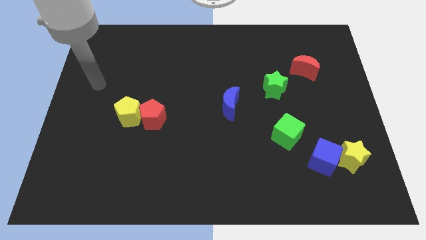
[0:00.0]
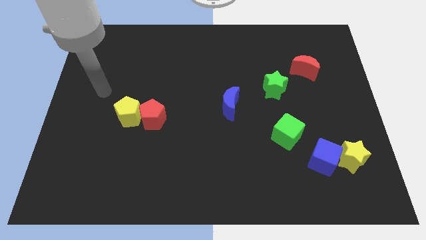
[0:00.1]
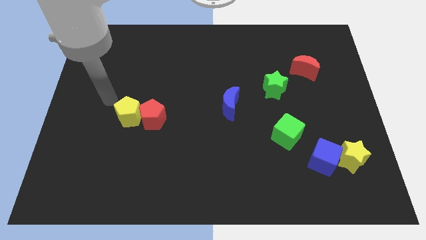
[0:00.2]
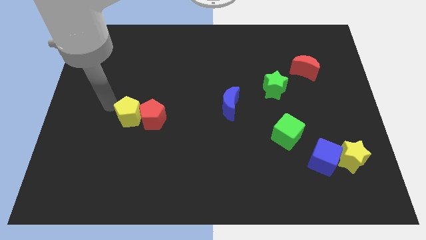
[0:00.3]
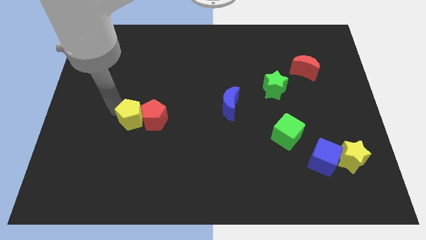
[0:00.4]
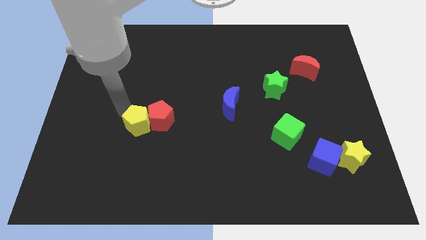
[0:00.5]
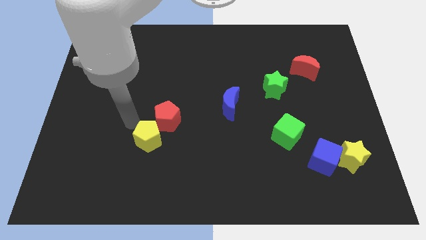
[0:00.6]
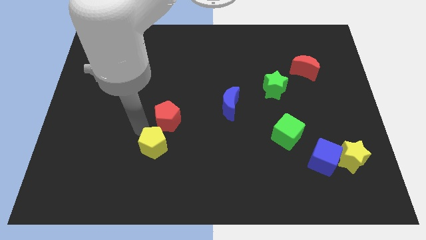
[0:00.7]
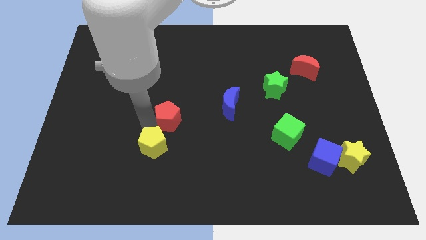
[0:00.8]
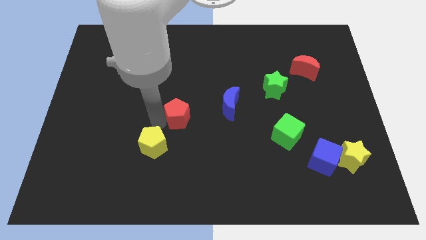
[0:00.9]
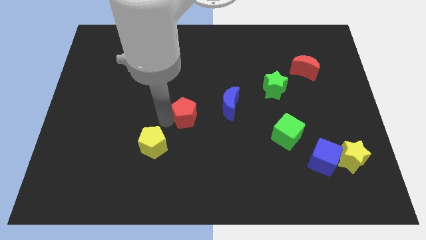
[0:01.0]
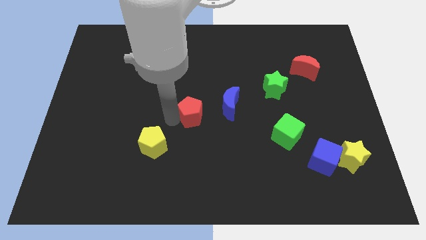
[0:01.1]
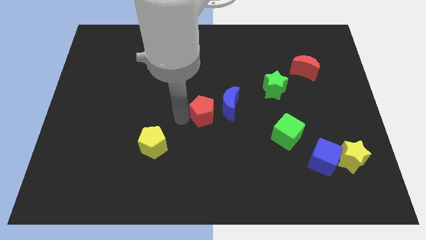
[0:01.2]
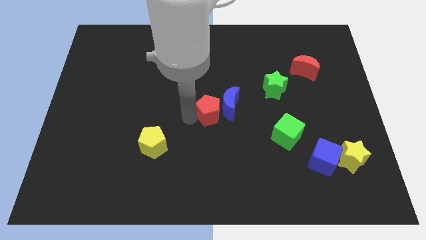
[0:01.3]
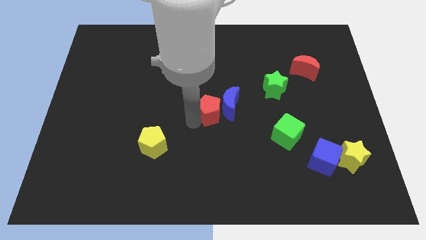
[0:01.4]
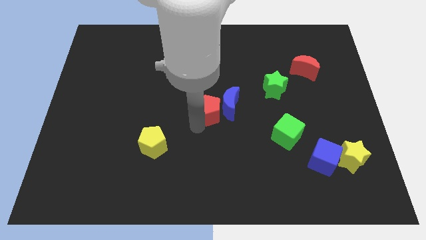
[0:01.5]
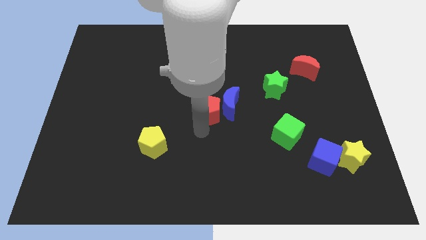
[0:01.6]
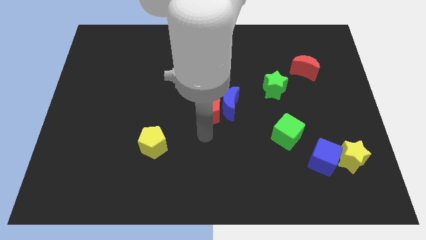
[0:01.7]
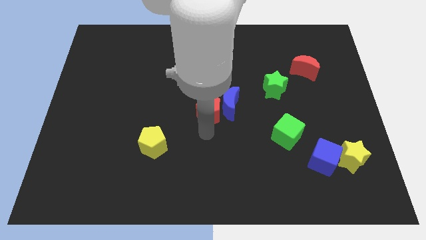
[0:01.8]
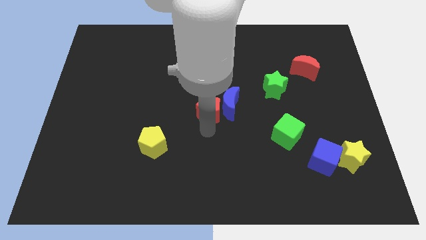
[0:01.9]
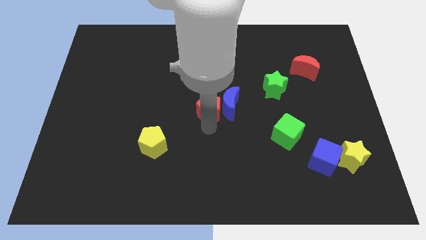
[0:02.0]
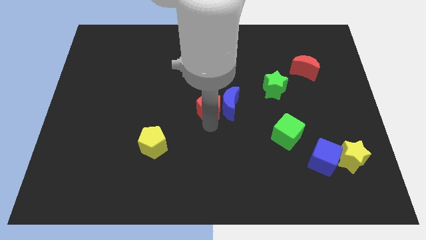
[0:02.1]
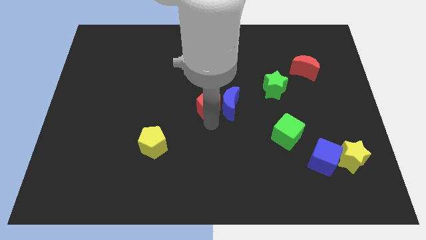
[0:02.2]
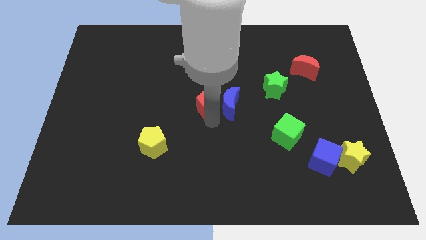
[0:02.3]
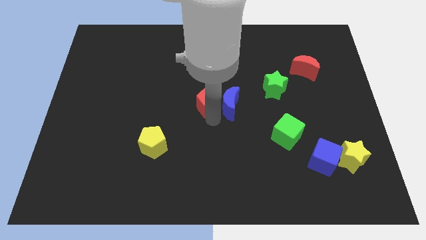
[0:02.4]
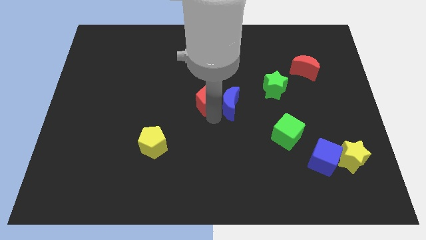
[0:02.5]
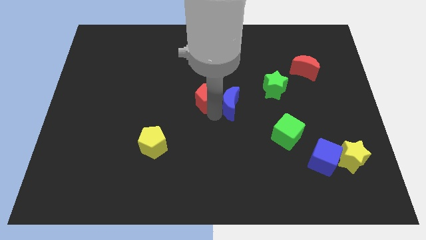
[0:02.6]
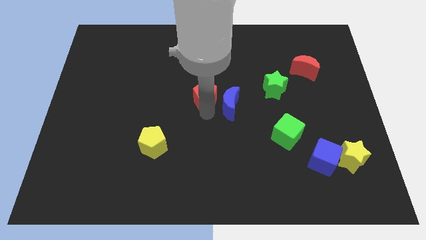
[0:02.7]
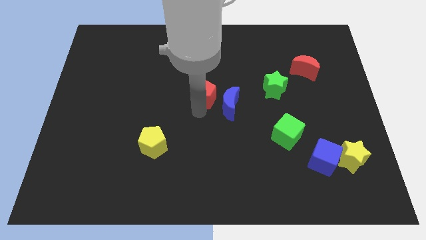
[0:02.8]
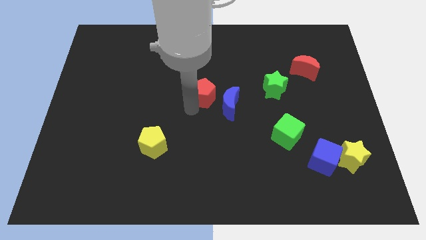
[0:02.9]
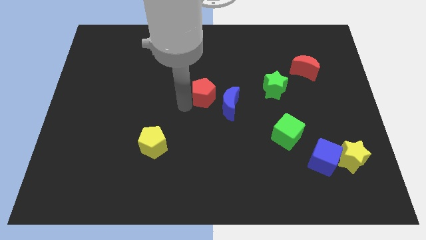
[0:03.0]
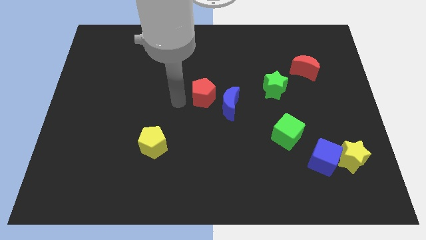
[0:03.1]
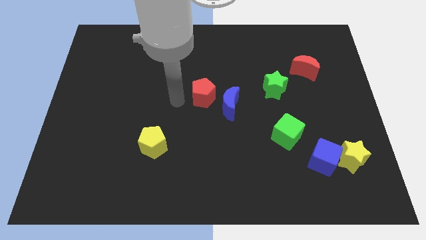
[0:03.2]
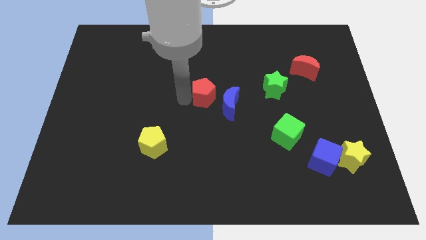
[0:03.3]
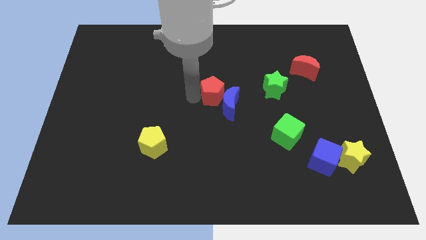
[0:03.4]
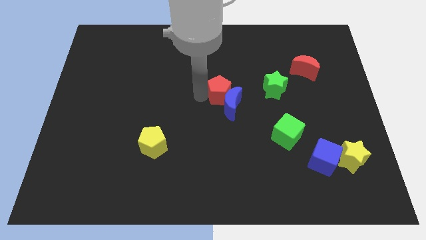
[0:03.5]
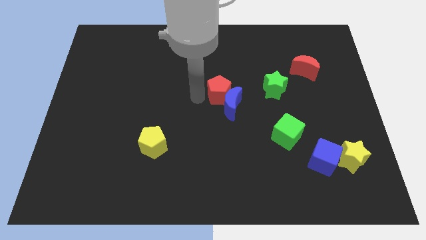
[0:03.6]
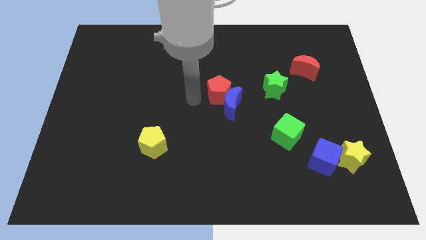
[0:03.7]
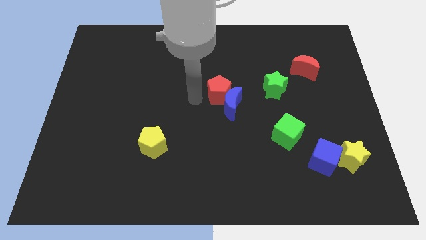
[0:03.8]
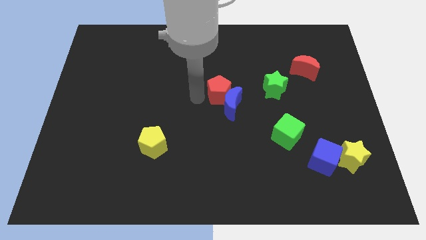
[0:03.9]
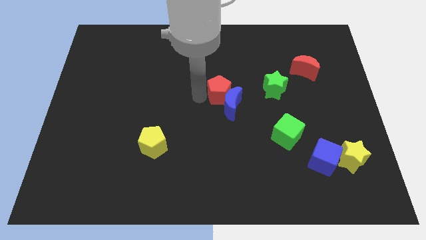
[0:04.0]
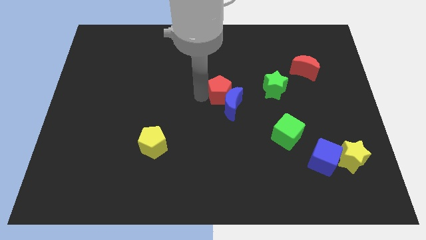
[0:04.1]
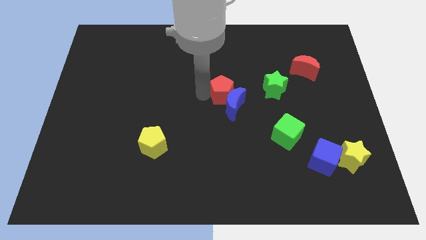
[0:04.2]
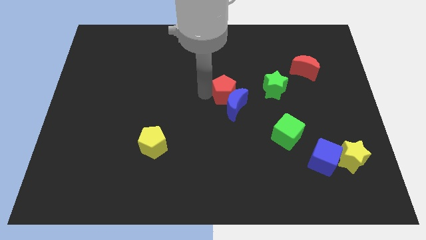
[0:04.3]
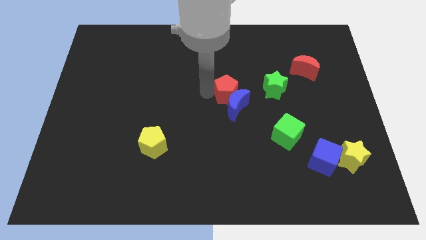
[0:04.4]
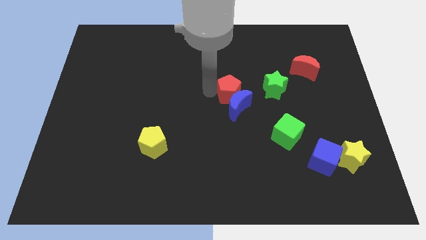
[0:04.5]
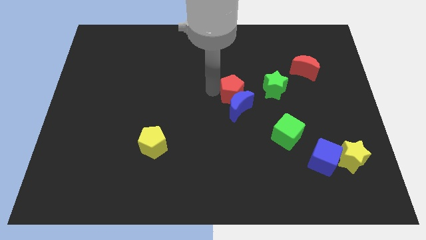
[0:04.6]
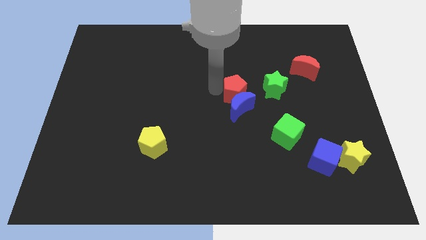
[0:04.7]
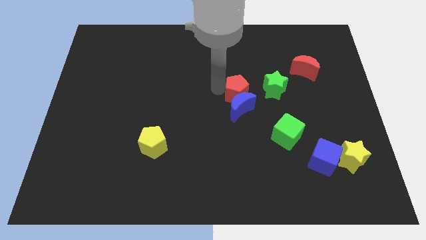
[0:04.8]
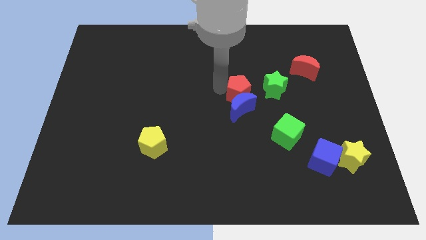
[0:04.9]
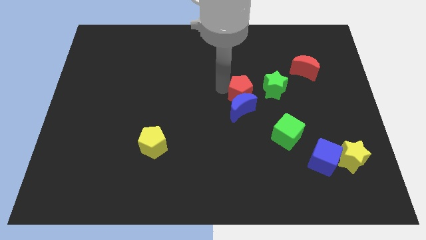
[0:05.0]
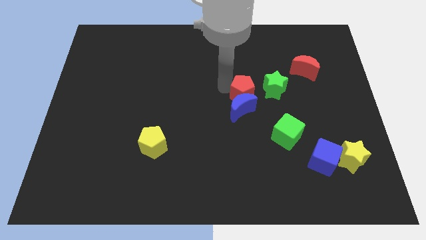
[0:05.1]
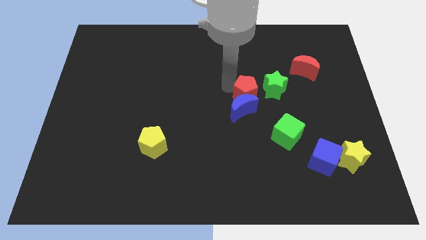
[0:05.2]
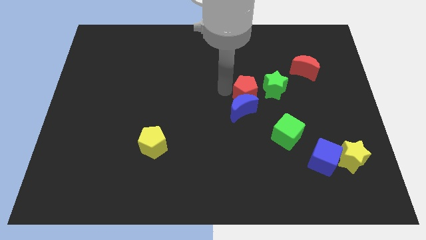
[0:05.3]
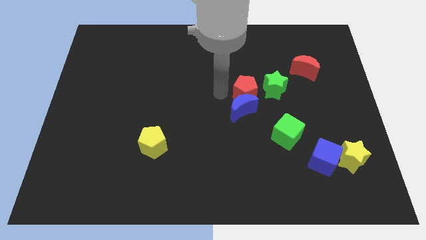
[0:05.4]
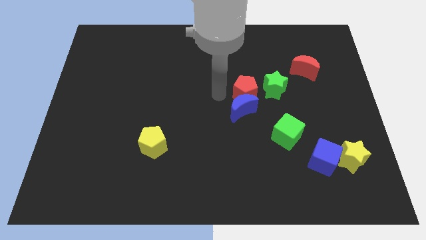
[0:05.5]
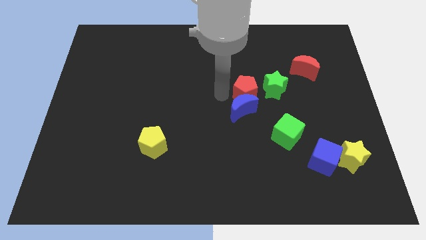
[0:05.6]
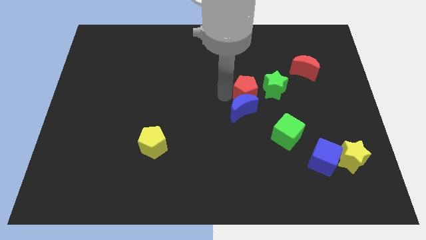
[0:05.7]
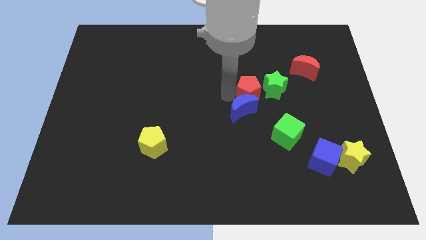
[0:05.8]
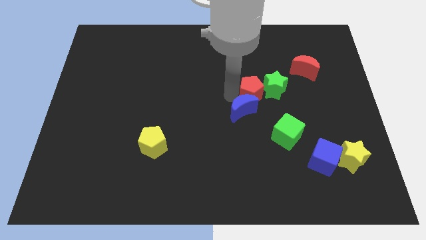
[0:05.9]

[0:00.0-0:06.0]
move the red pentagon next to the green star
